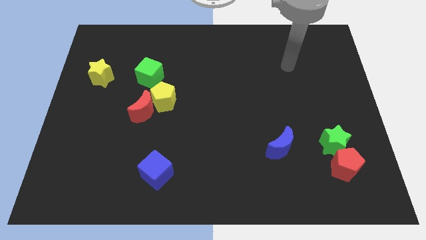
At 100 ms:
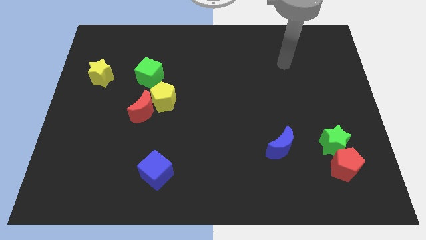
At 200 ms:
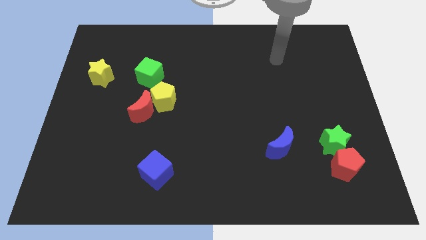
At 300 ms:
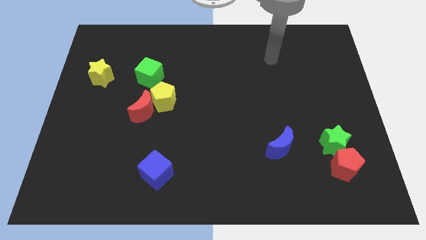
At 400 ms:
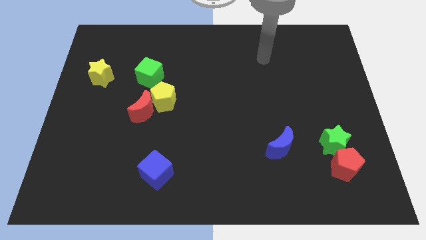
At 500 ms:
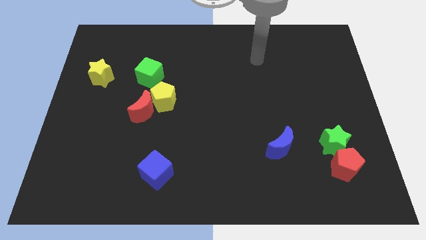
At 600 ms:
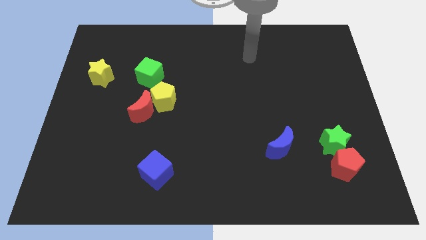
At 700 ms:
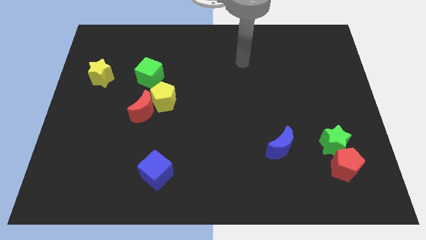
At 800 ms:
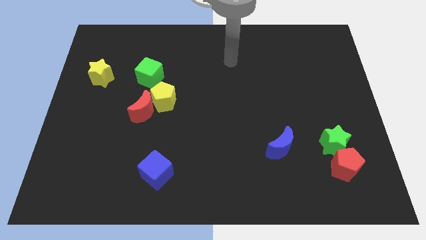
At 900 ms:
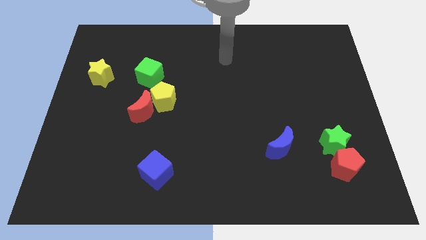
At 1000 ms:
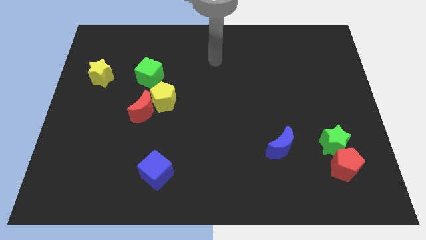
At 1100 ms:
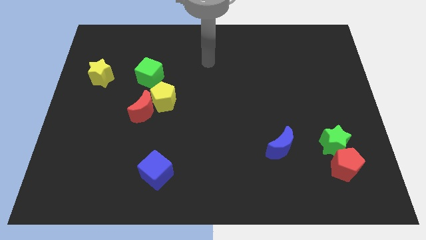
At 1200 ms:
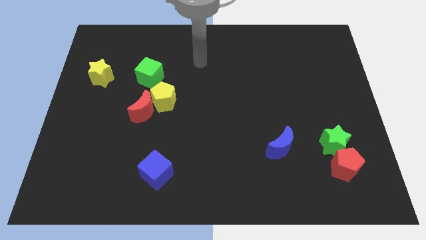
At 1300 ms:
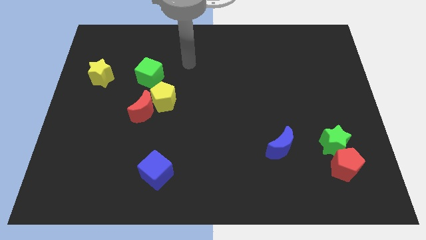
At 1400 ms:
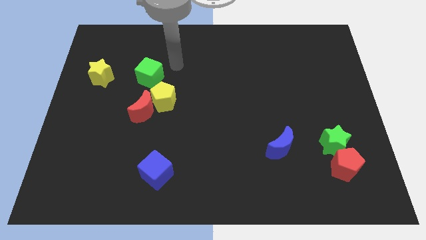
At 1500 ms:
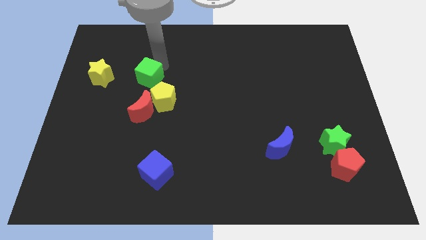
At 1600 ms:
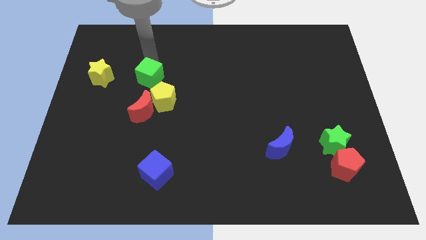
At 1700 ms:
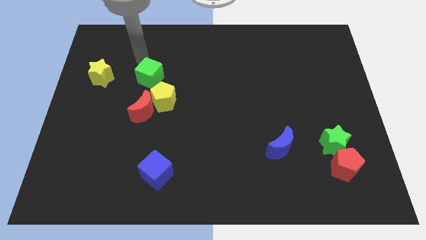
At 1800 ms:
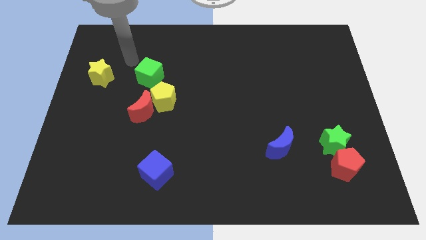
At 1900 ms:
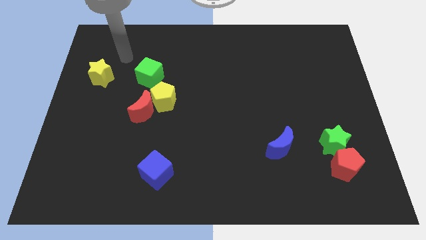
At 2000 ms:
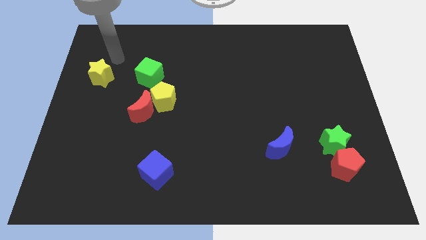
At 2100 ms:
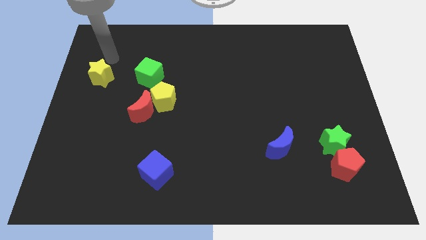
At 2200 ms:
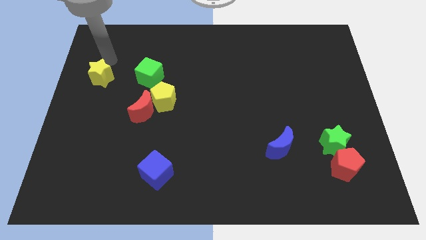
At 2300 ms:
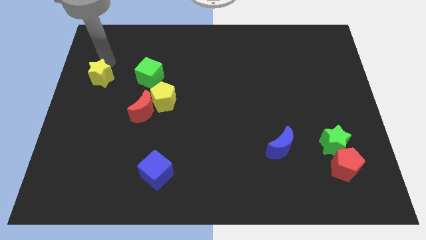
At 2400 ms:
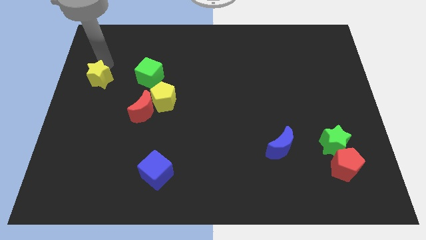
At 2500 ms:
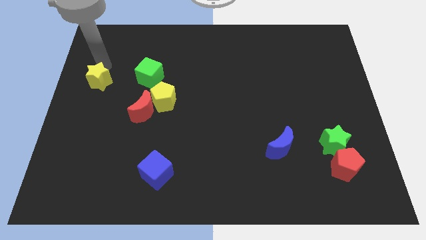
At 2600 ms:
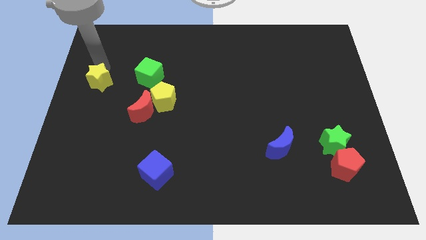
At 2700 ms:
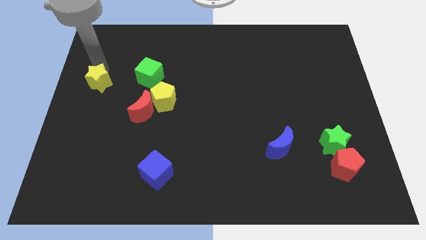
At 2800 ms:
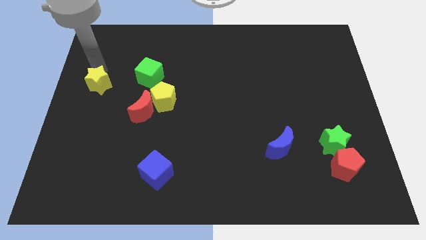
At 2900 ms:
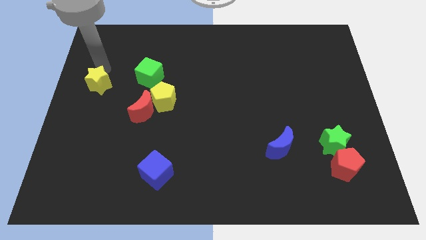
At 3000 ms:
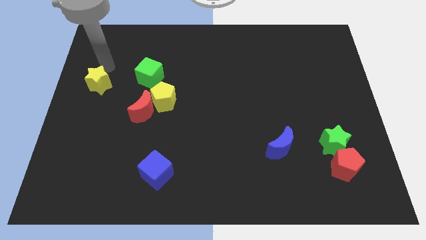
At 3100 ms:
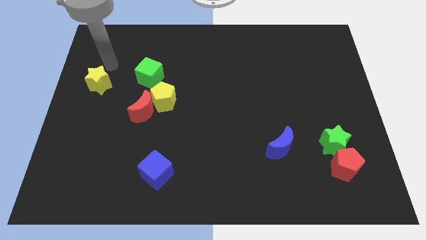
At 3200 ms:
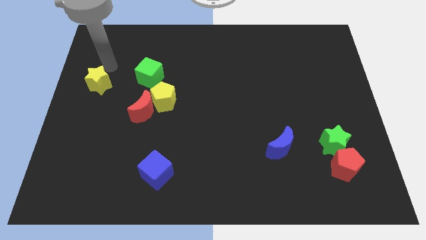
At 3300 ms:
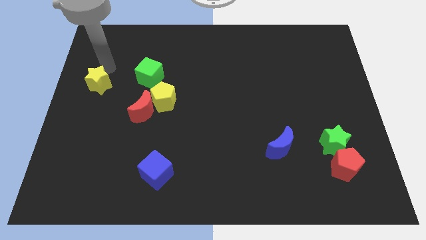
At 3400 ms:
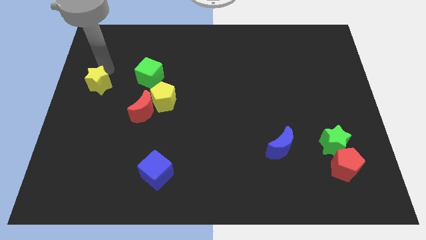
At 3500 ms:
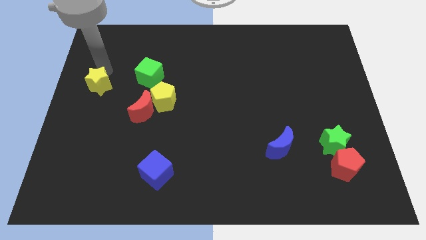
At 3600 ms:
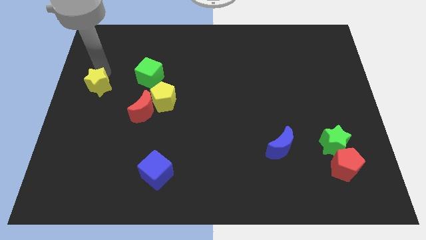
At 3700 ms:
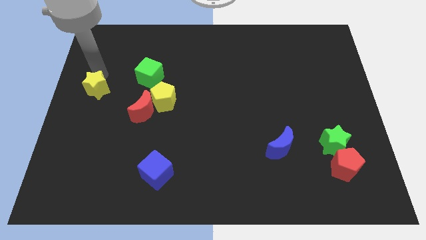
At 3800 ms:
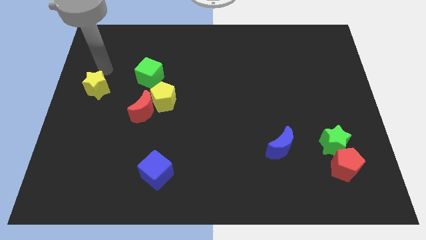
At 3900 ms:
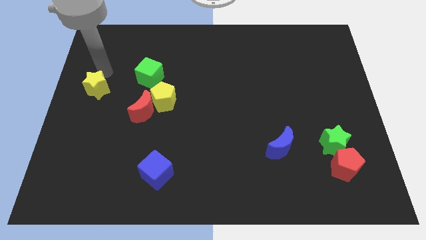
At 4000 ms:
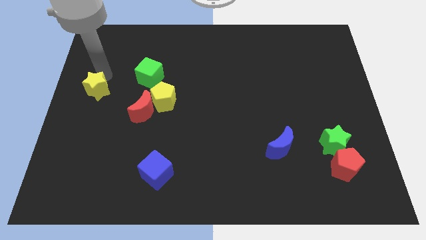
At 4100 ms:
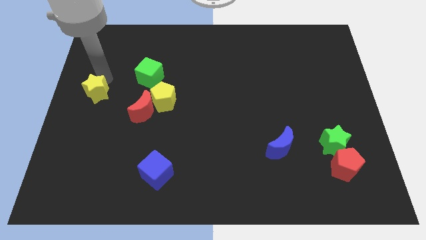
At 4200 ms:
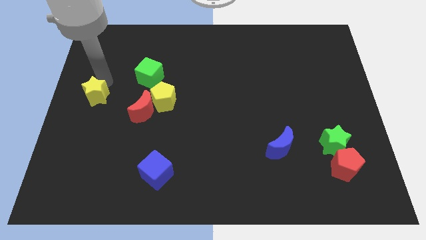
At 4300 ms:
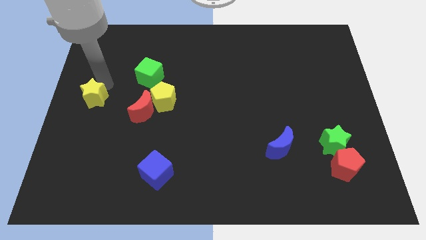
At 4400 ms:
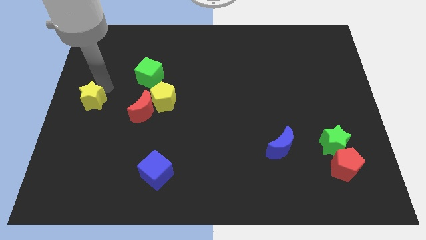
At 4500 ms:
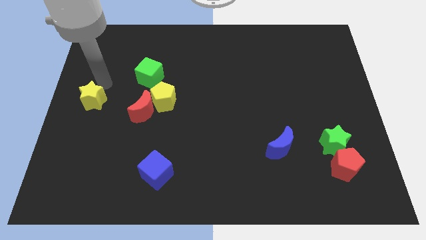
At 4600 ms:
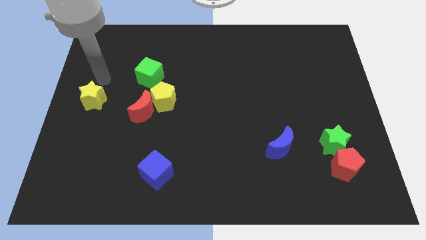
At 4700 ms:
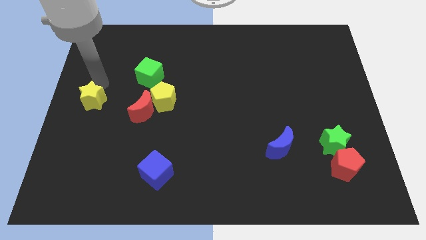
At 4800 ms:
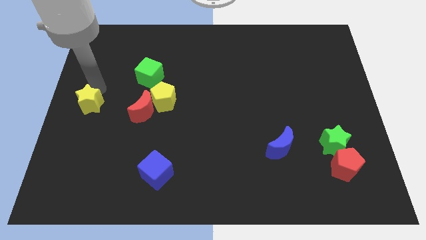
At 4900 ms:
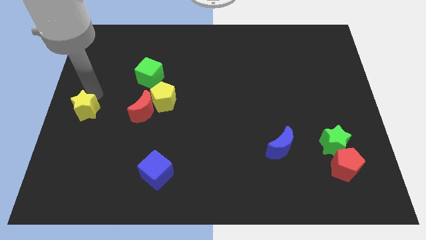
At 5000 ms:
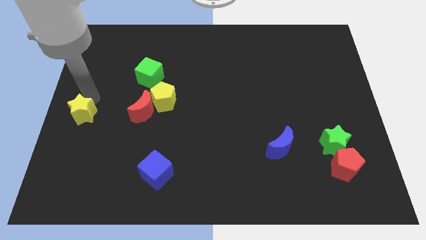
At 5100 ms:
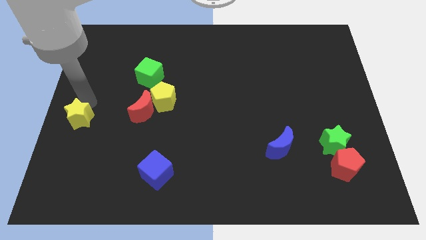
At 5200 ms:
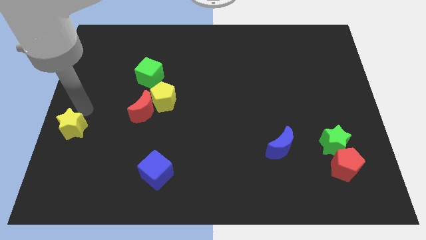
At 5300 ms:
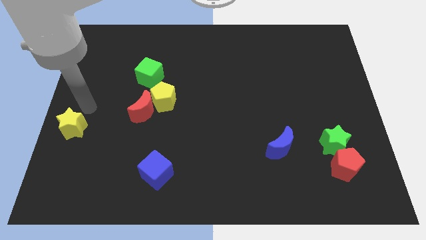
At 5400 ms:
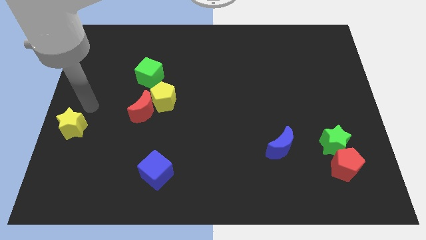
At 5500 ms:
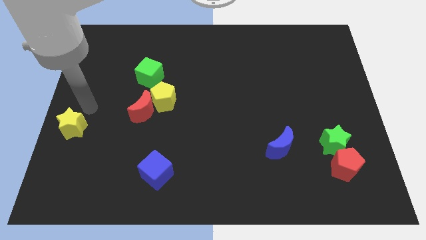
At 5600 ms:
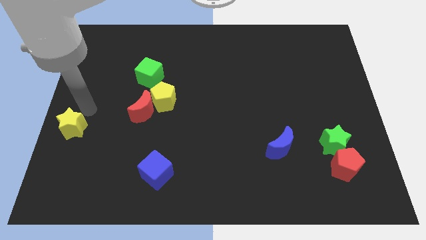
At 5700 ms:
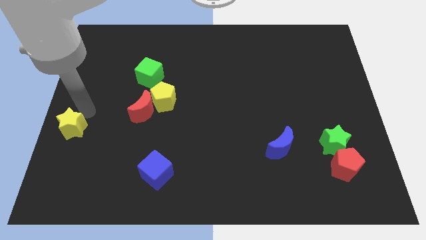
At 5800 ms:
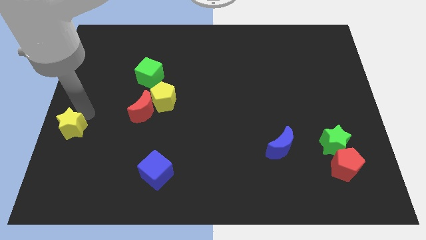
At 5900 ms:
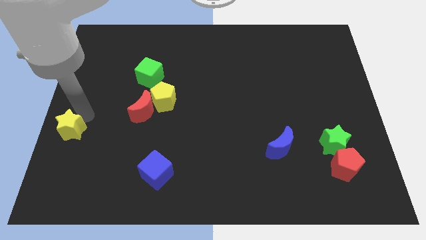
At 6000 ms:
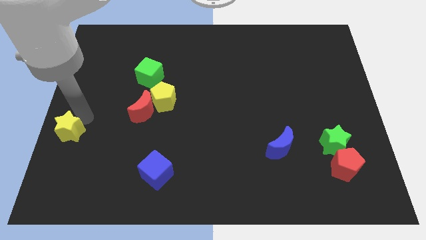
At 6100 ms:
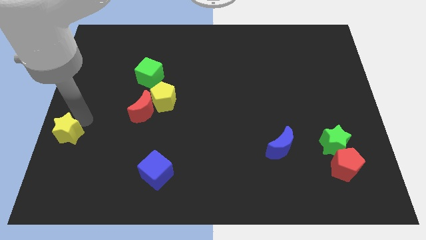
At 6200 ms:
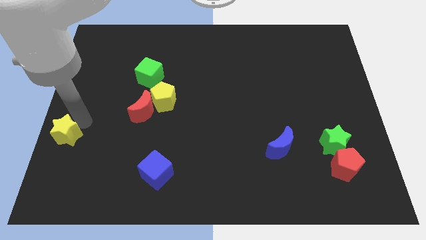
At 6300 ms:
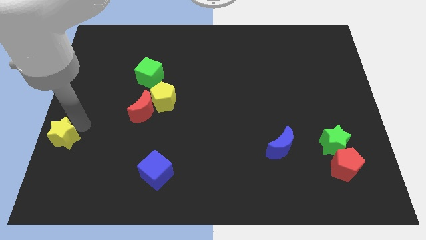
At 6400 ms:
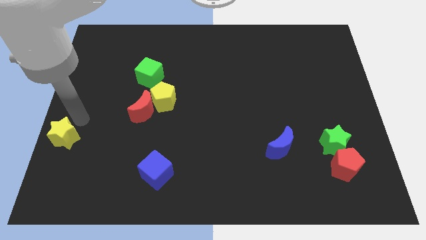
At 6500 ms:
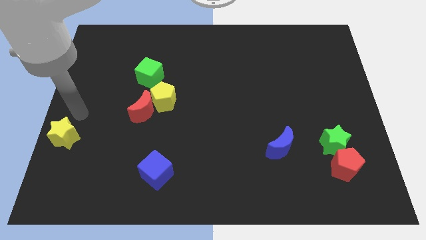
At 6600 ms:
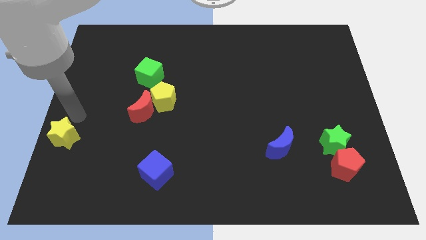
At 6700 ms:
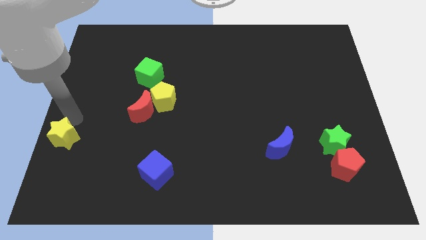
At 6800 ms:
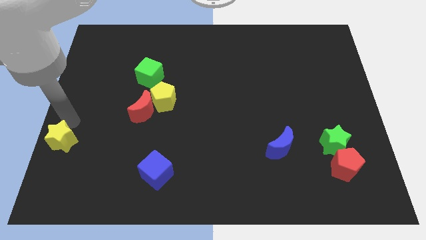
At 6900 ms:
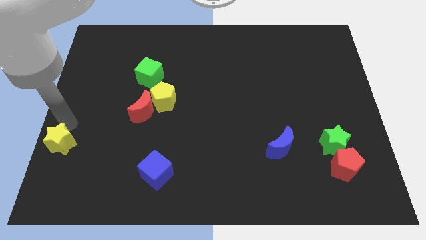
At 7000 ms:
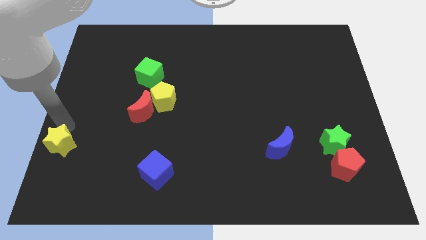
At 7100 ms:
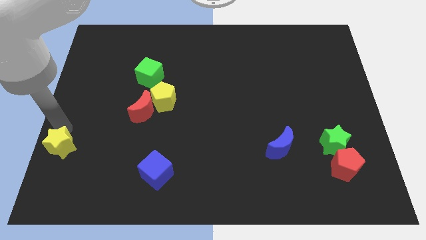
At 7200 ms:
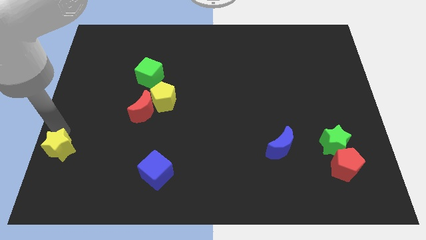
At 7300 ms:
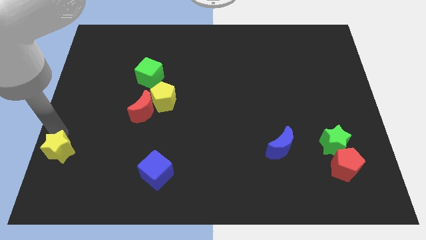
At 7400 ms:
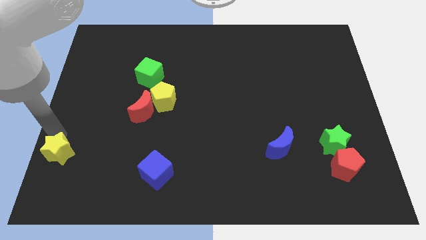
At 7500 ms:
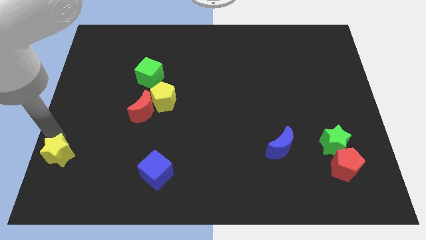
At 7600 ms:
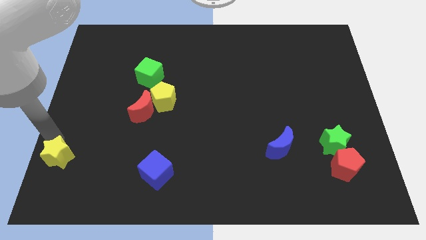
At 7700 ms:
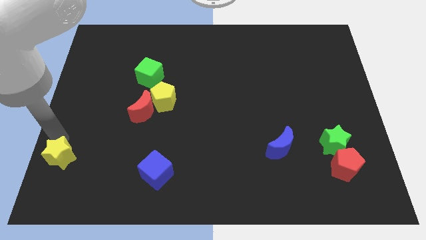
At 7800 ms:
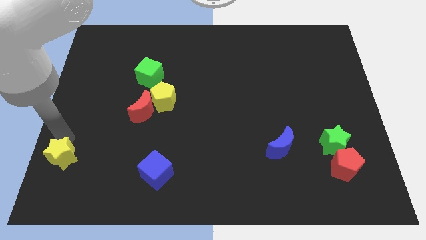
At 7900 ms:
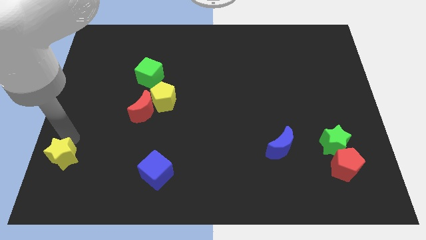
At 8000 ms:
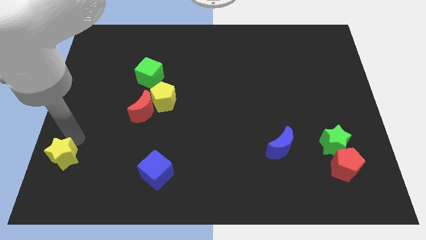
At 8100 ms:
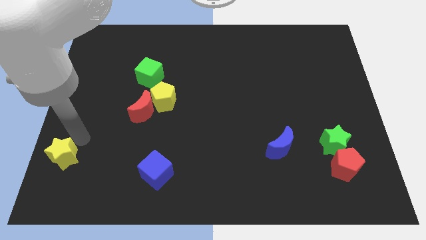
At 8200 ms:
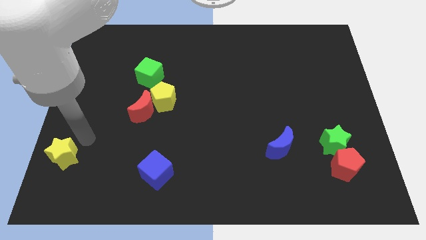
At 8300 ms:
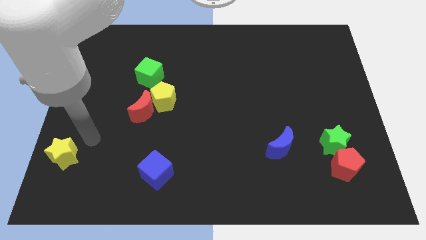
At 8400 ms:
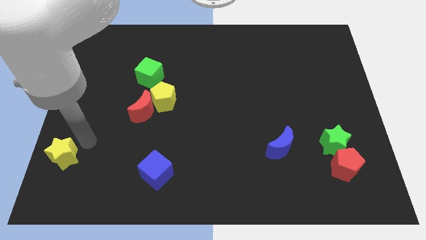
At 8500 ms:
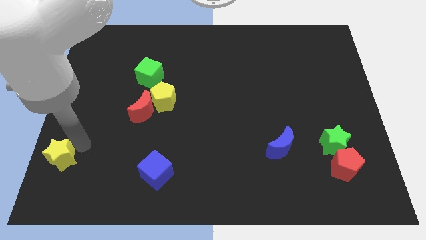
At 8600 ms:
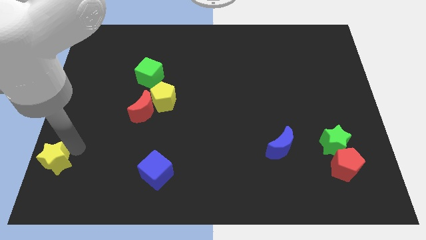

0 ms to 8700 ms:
move the yellow star to the bottom left
